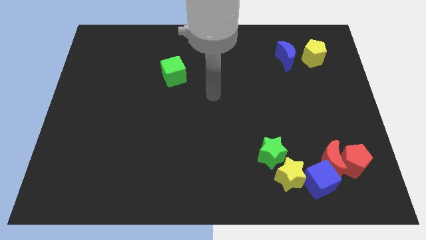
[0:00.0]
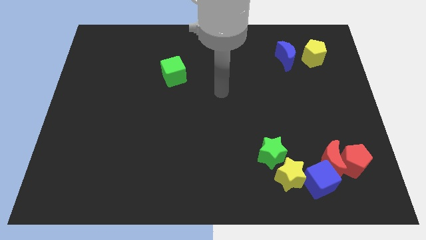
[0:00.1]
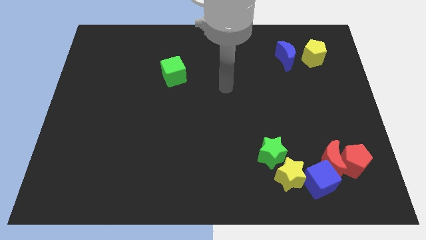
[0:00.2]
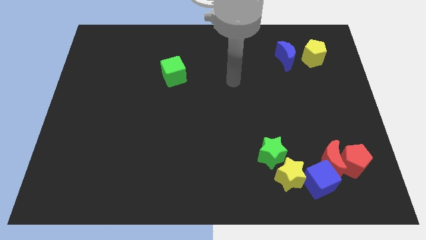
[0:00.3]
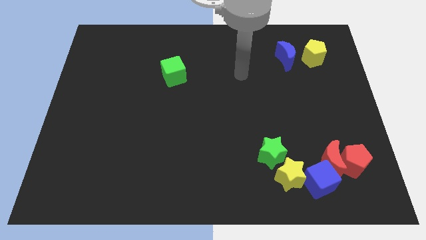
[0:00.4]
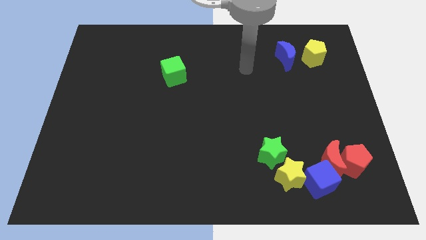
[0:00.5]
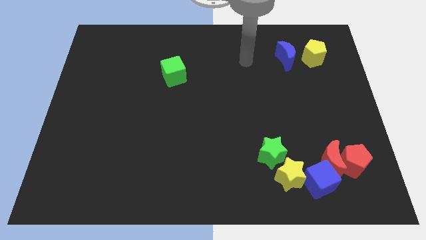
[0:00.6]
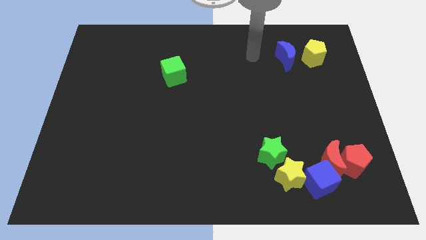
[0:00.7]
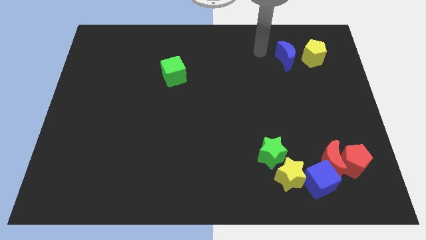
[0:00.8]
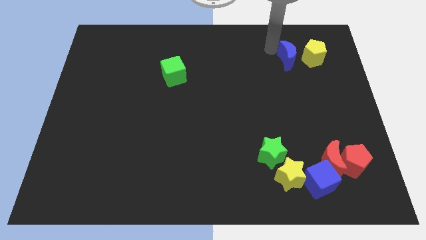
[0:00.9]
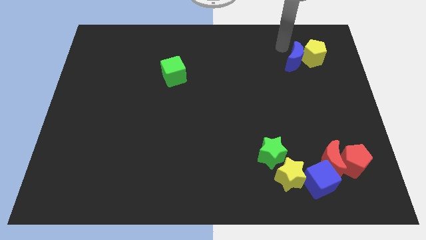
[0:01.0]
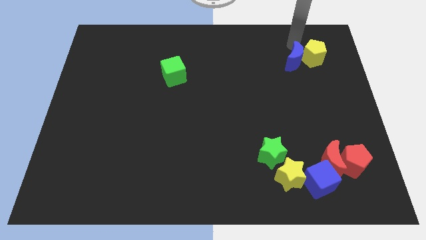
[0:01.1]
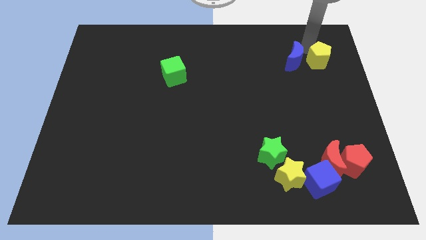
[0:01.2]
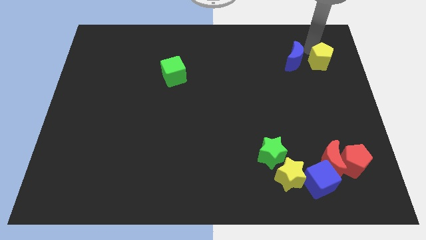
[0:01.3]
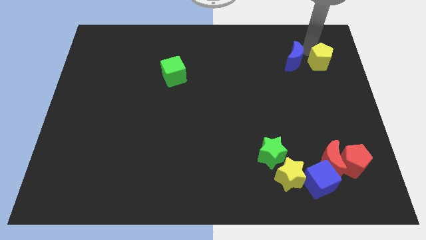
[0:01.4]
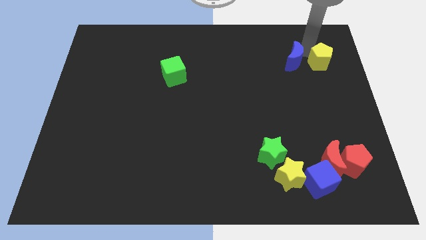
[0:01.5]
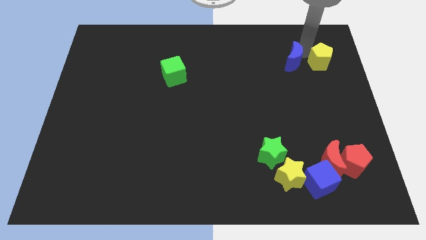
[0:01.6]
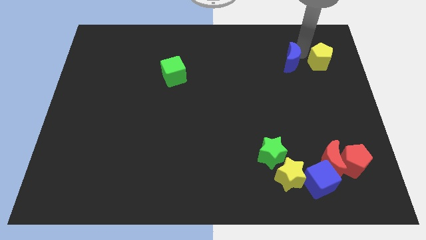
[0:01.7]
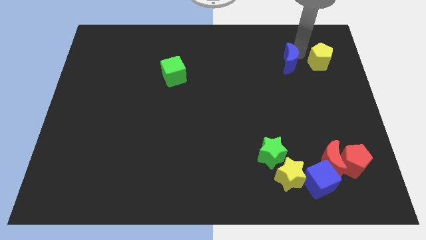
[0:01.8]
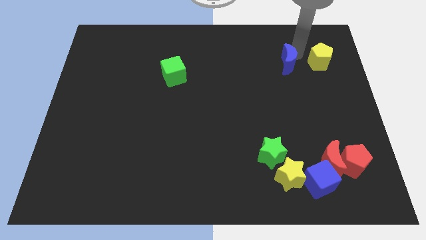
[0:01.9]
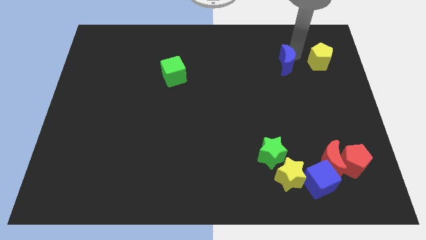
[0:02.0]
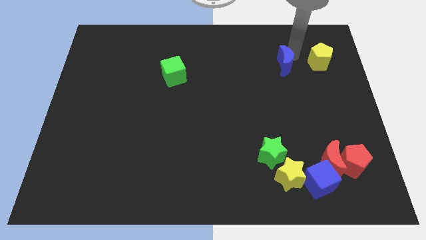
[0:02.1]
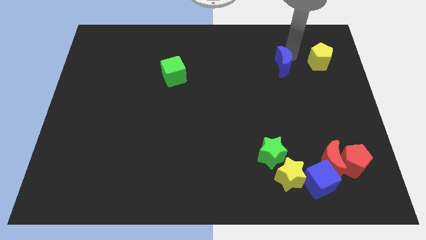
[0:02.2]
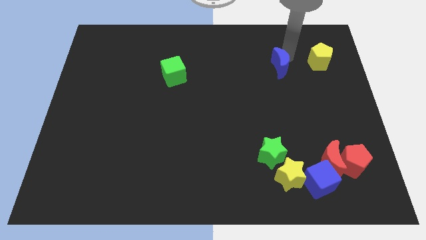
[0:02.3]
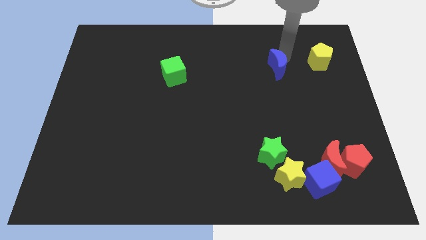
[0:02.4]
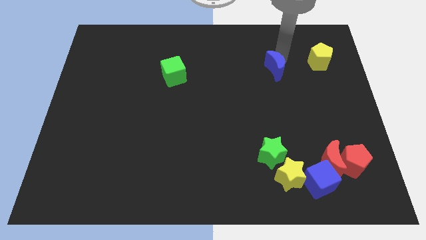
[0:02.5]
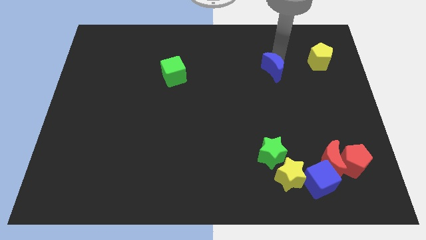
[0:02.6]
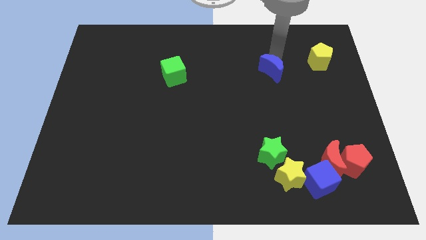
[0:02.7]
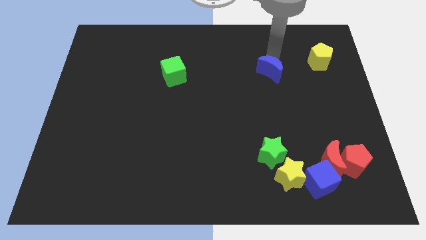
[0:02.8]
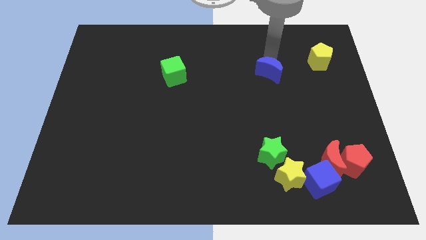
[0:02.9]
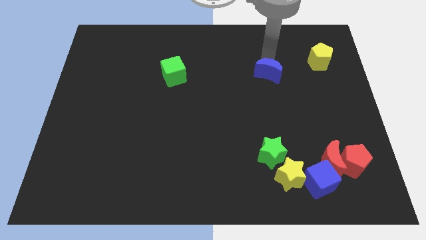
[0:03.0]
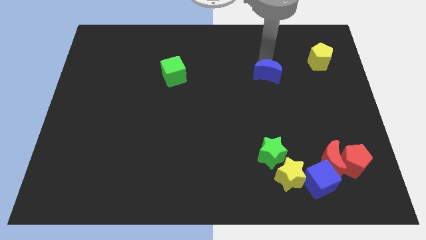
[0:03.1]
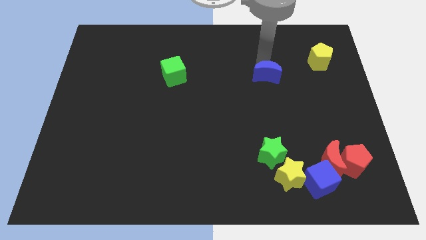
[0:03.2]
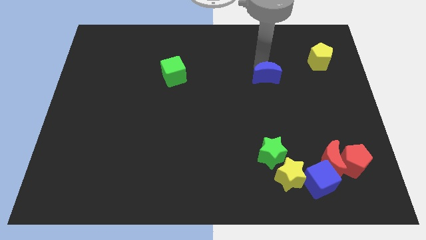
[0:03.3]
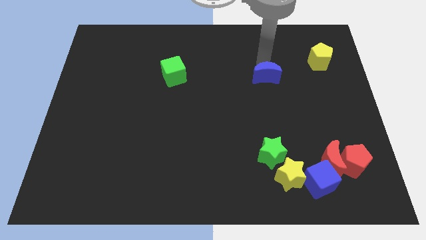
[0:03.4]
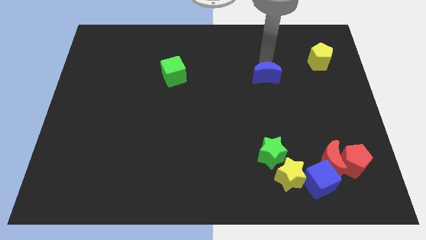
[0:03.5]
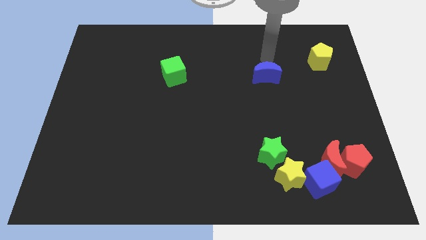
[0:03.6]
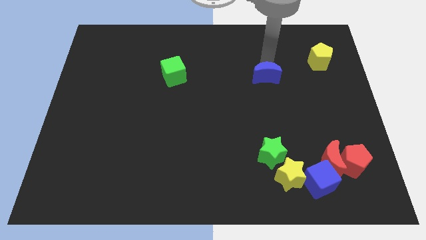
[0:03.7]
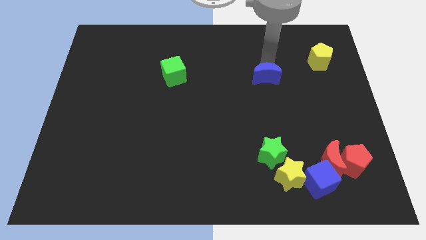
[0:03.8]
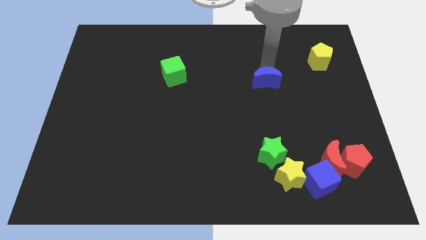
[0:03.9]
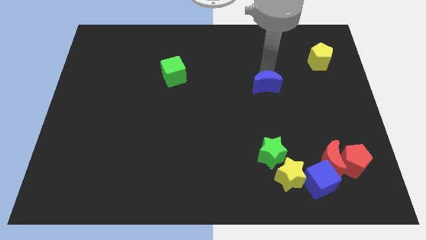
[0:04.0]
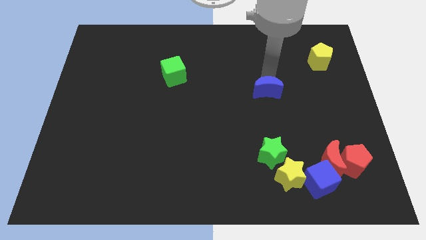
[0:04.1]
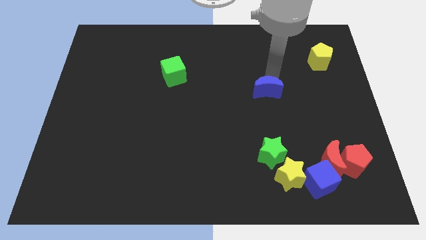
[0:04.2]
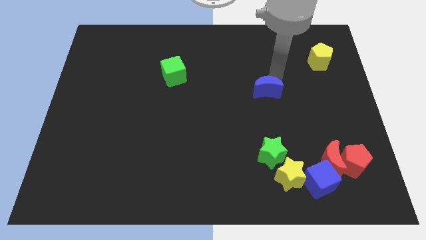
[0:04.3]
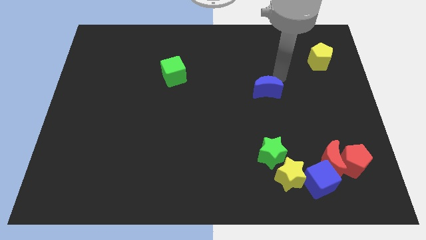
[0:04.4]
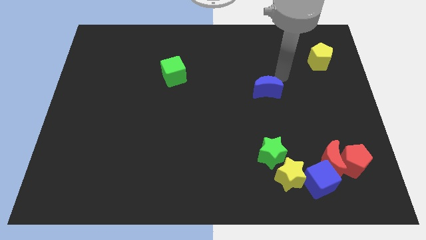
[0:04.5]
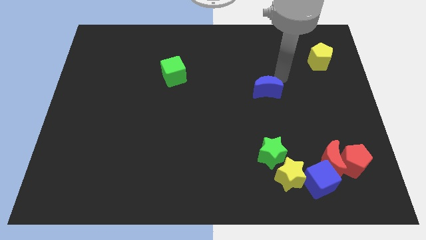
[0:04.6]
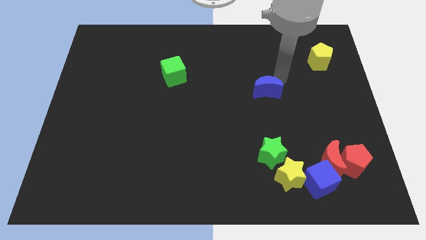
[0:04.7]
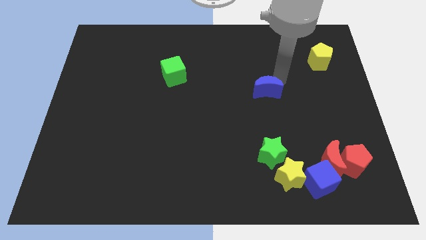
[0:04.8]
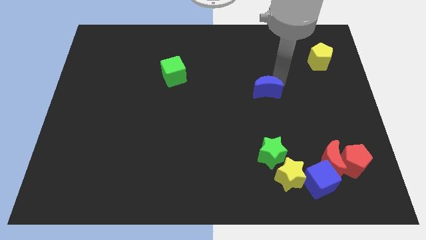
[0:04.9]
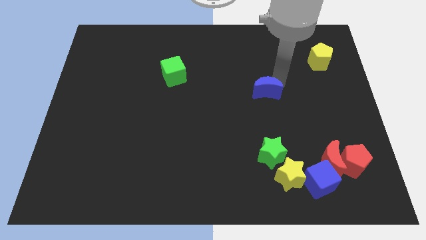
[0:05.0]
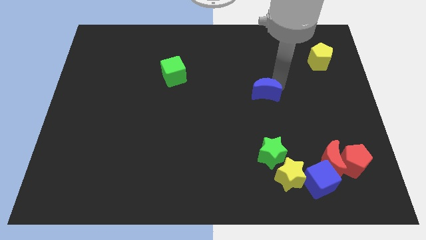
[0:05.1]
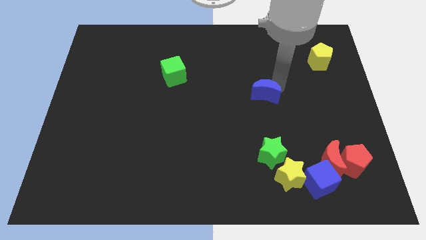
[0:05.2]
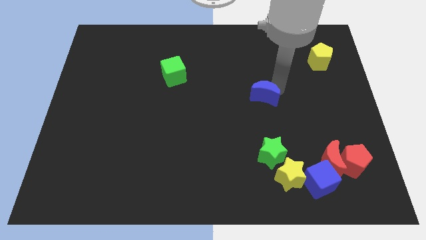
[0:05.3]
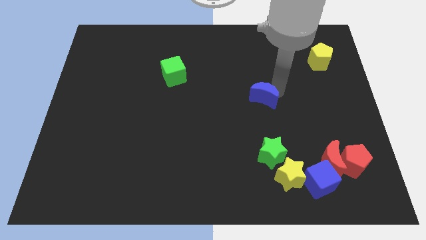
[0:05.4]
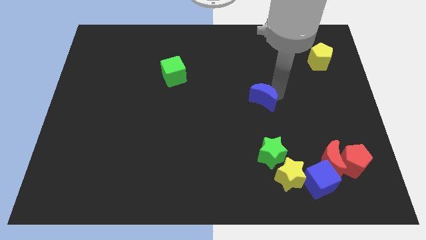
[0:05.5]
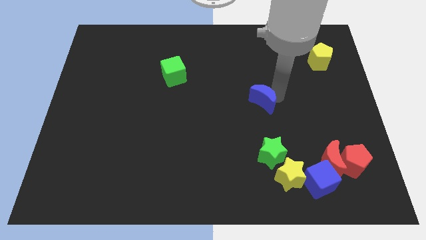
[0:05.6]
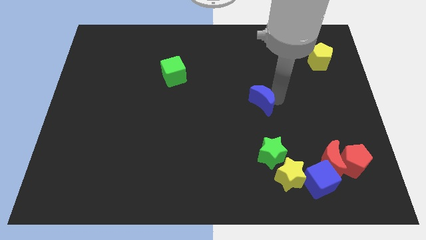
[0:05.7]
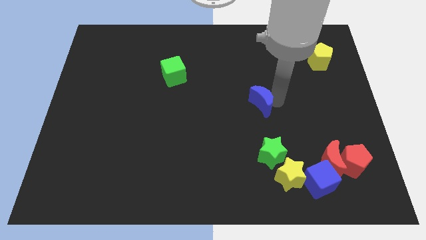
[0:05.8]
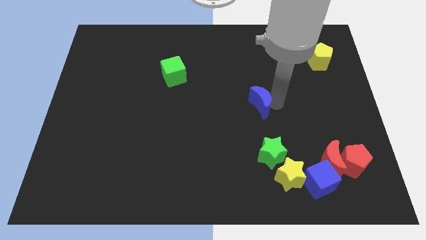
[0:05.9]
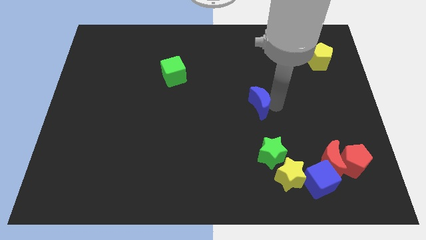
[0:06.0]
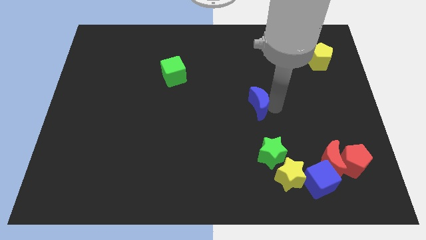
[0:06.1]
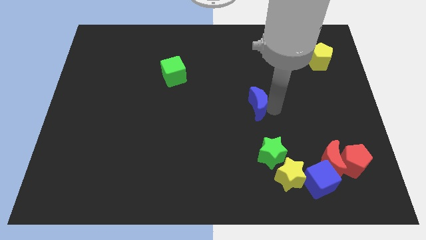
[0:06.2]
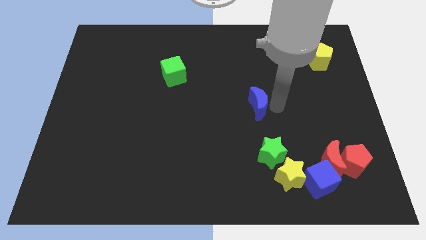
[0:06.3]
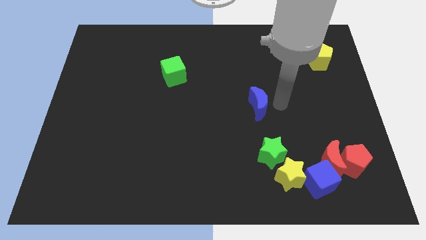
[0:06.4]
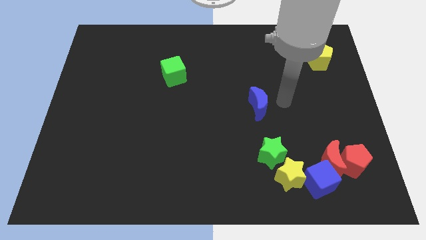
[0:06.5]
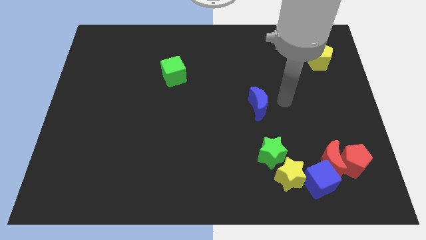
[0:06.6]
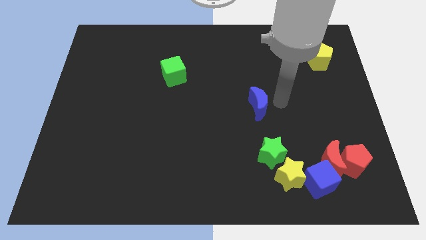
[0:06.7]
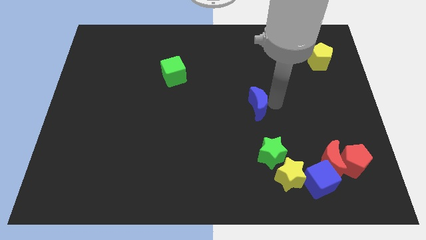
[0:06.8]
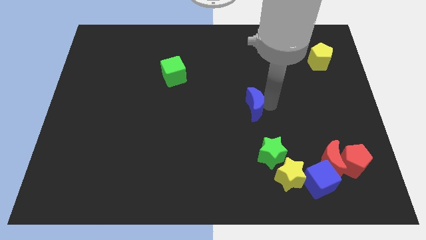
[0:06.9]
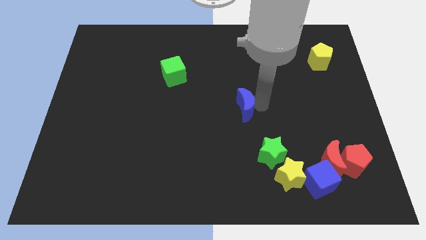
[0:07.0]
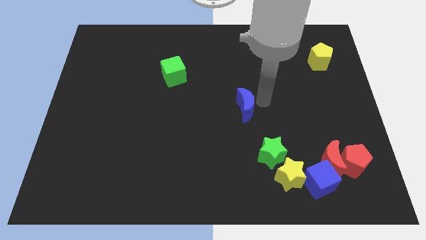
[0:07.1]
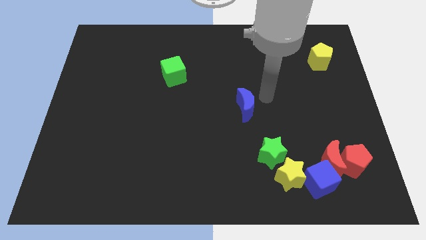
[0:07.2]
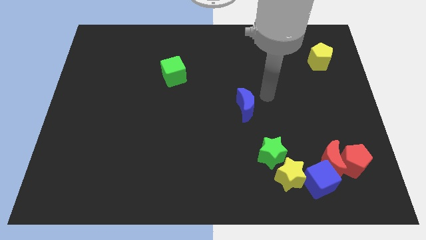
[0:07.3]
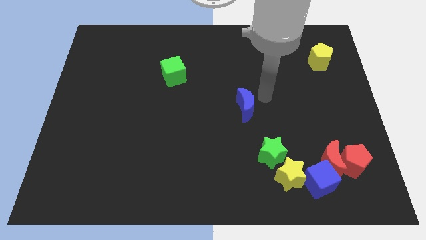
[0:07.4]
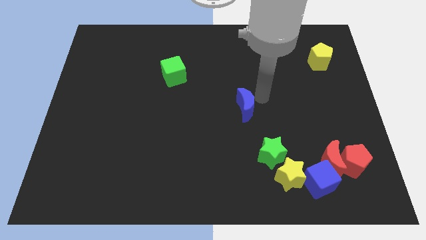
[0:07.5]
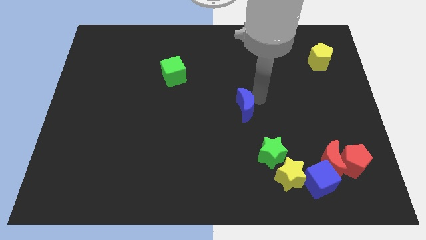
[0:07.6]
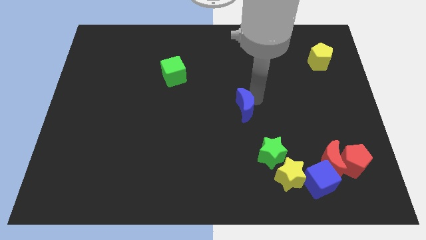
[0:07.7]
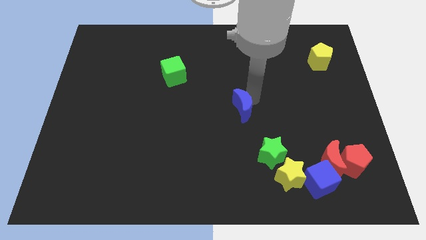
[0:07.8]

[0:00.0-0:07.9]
slide the blue moon diagonally downwards and to the left

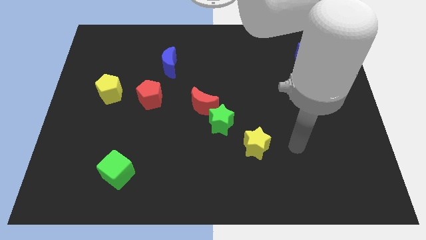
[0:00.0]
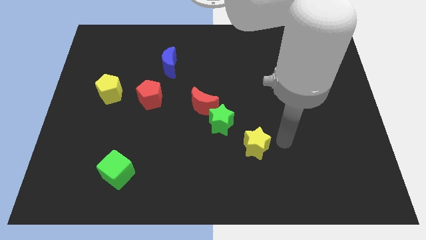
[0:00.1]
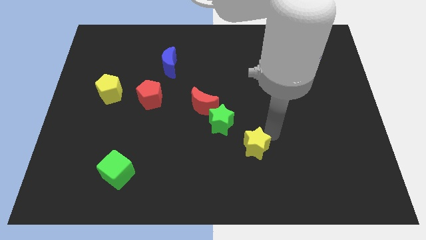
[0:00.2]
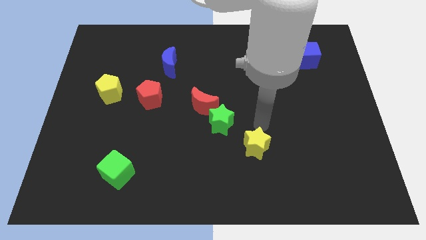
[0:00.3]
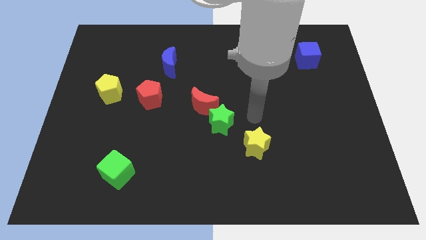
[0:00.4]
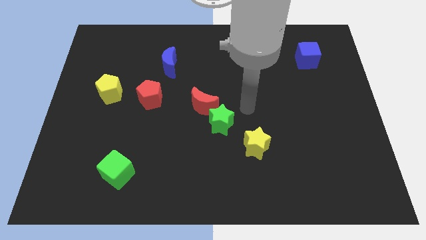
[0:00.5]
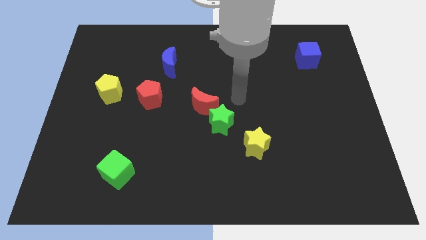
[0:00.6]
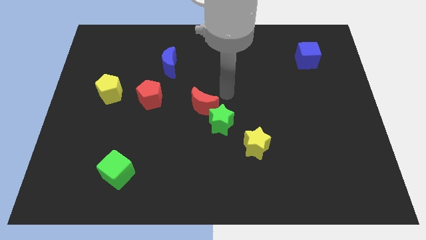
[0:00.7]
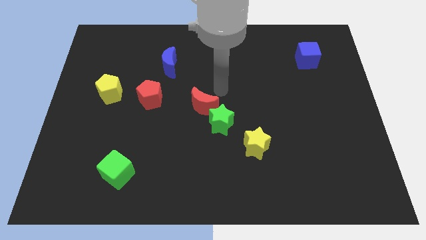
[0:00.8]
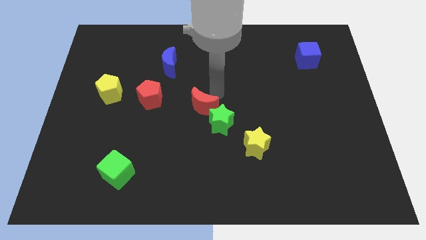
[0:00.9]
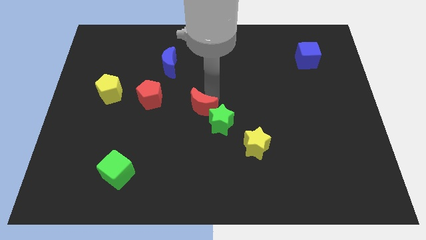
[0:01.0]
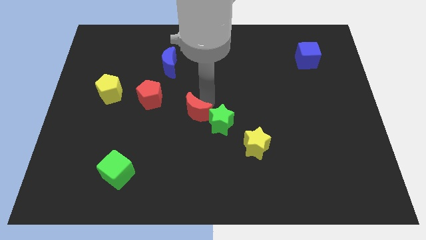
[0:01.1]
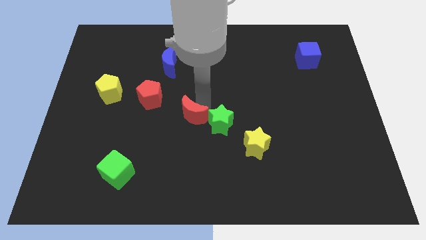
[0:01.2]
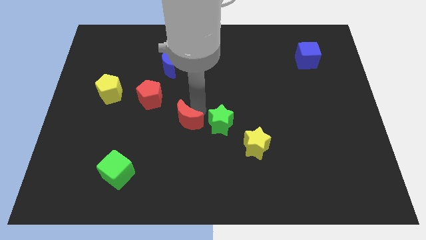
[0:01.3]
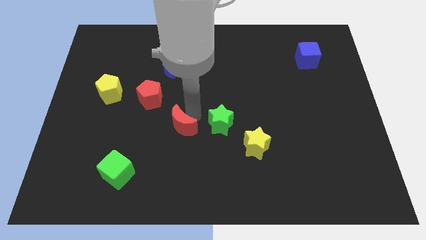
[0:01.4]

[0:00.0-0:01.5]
move the red moon a little downwards and to the left diagonally
